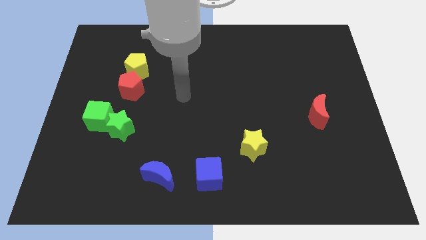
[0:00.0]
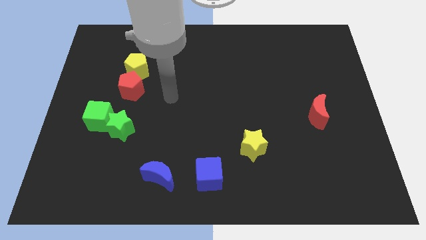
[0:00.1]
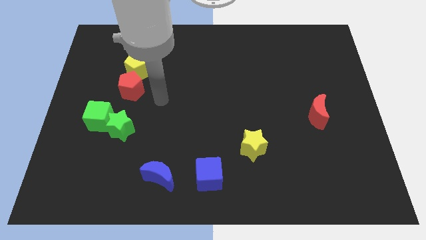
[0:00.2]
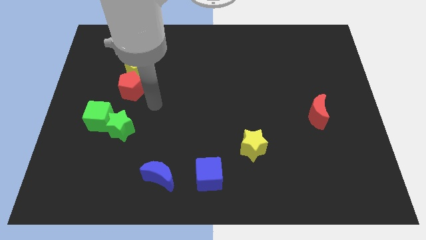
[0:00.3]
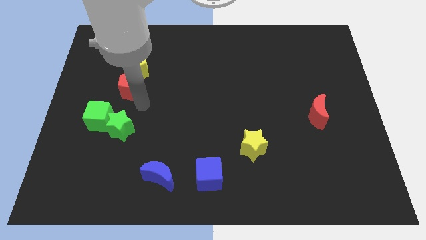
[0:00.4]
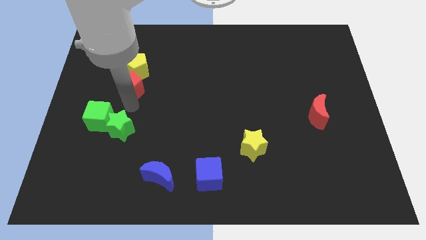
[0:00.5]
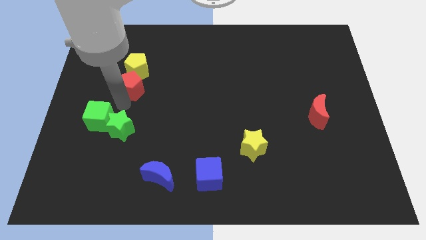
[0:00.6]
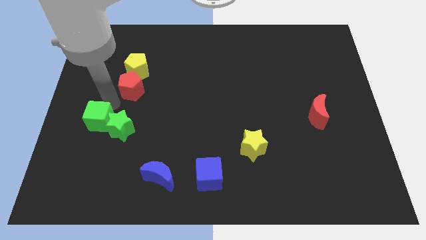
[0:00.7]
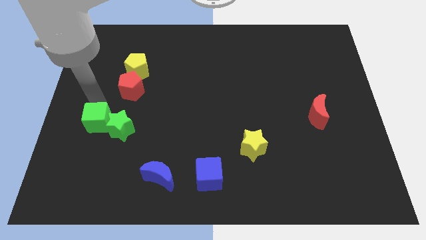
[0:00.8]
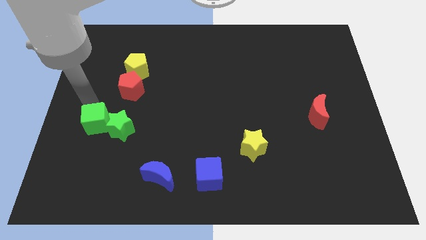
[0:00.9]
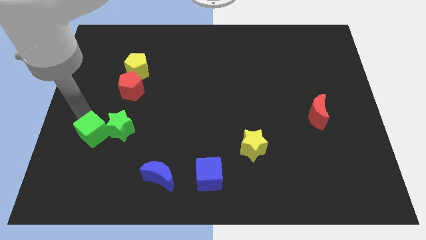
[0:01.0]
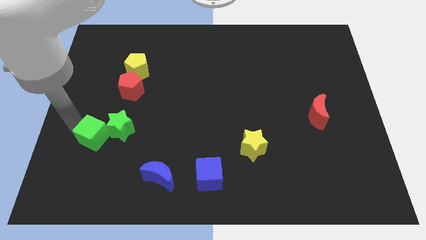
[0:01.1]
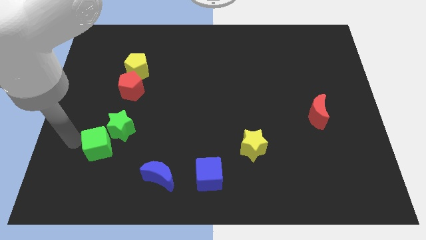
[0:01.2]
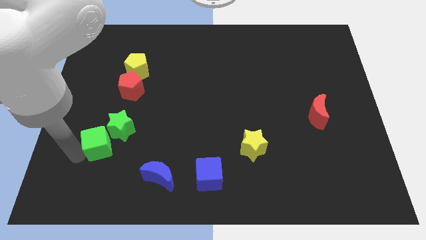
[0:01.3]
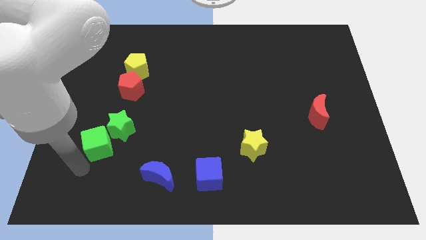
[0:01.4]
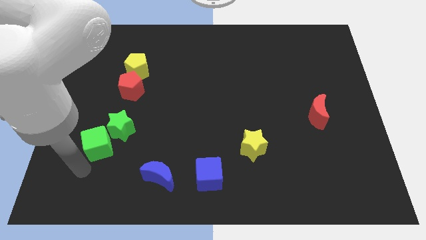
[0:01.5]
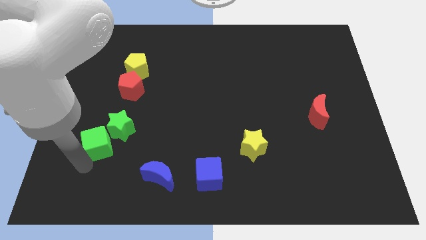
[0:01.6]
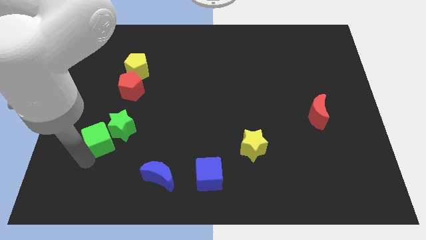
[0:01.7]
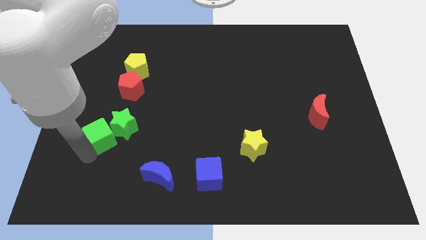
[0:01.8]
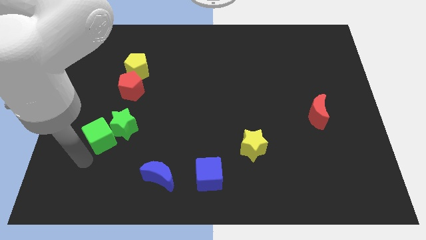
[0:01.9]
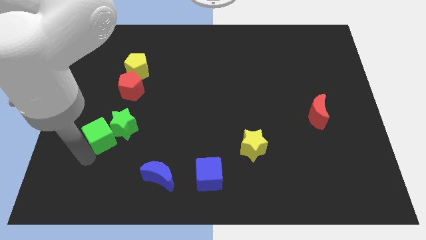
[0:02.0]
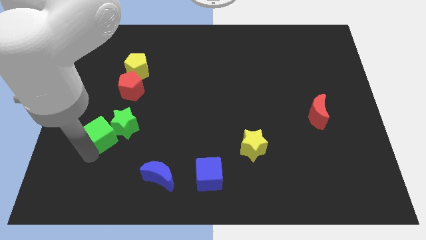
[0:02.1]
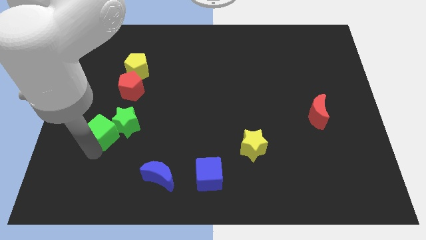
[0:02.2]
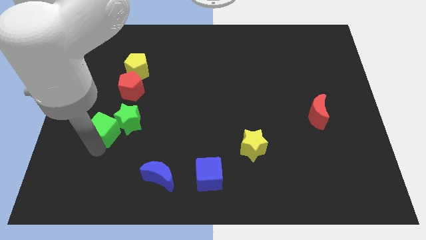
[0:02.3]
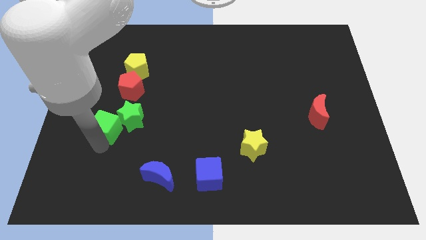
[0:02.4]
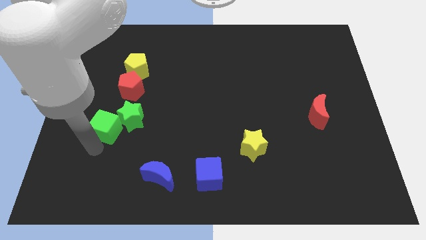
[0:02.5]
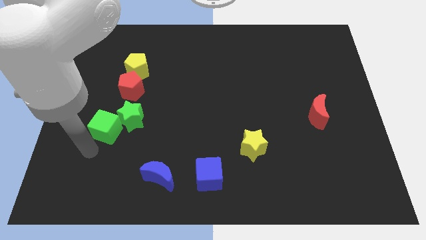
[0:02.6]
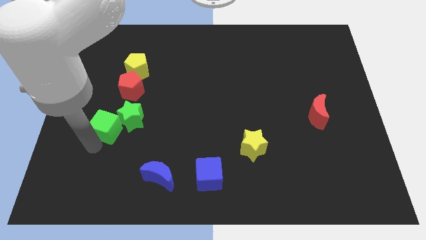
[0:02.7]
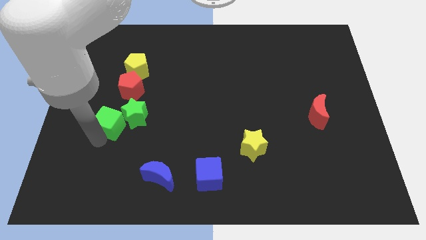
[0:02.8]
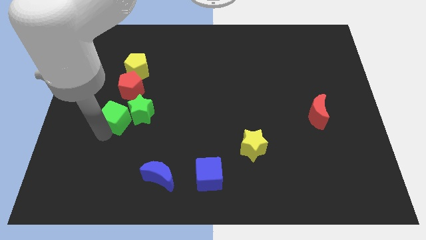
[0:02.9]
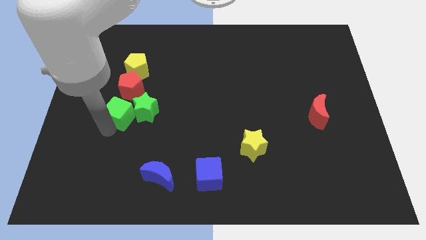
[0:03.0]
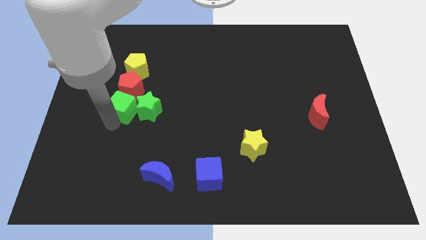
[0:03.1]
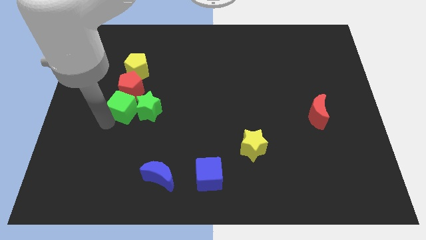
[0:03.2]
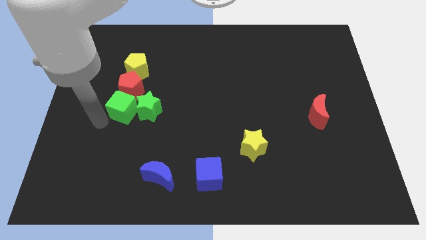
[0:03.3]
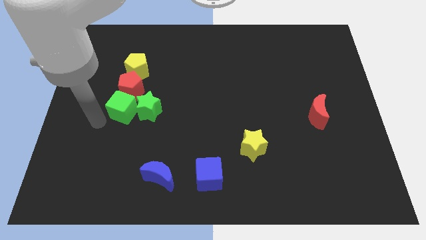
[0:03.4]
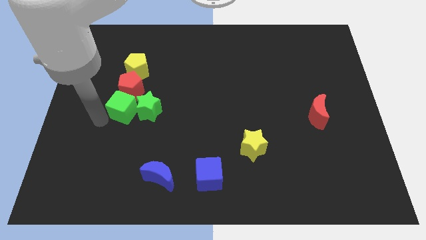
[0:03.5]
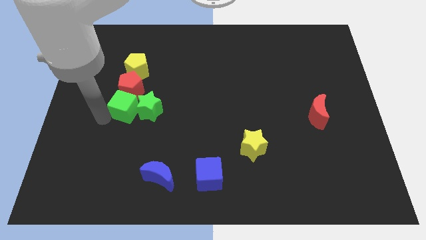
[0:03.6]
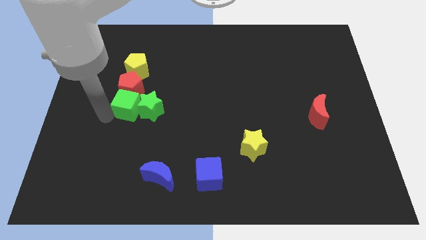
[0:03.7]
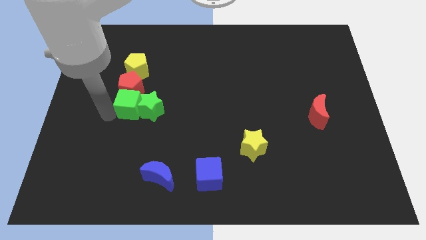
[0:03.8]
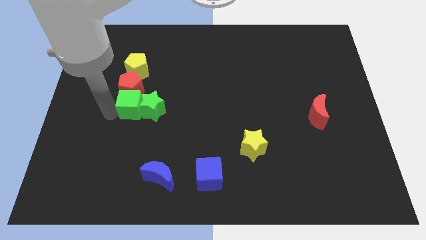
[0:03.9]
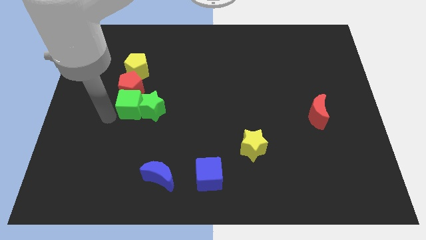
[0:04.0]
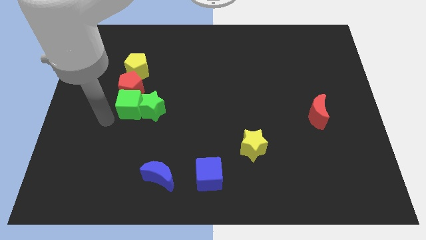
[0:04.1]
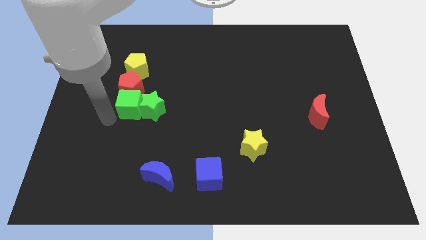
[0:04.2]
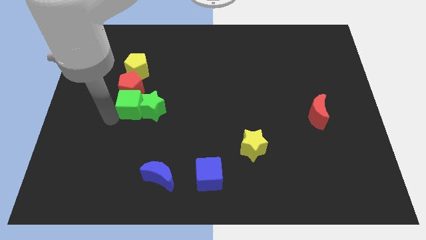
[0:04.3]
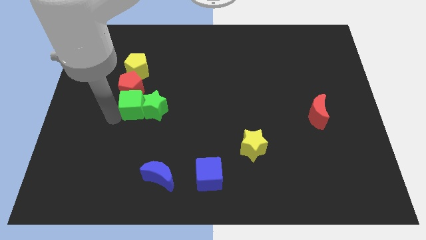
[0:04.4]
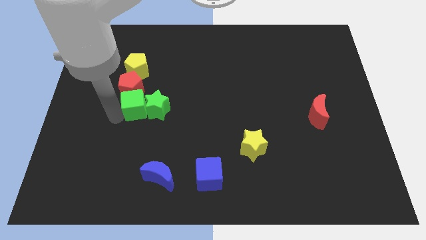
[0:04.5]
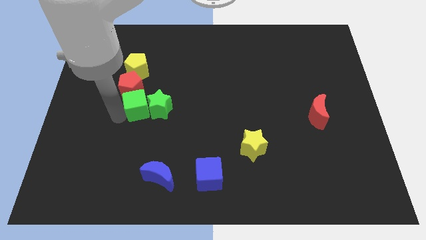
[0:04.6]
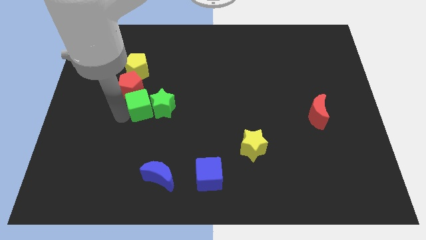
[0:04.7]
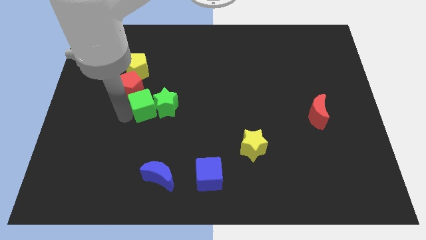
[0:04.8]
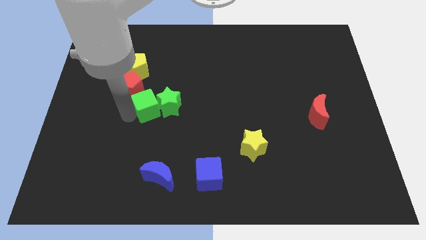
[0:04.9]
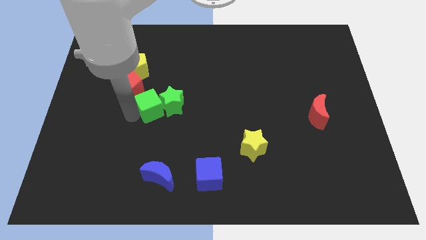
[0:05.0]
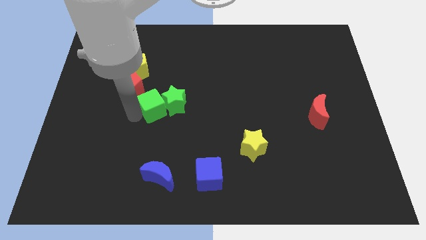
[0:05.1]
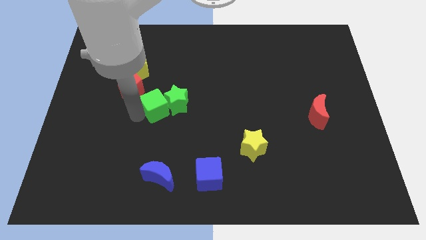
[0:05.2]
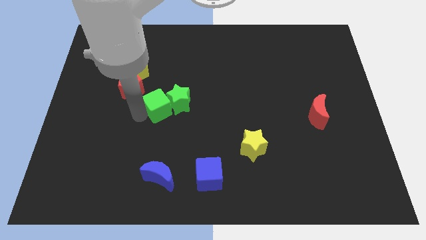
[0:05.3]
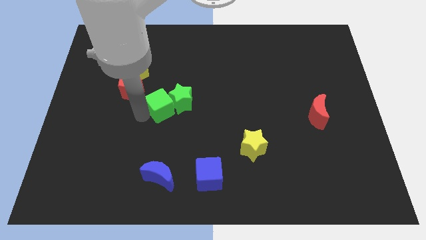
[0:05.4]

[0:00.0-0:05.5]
put the green cube to the middle of the board

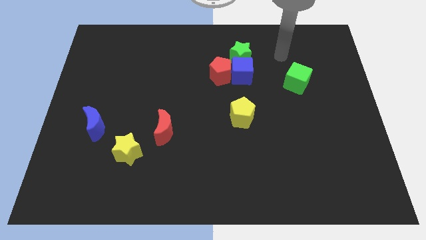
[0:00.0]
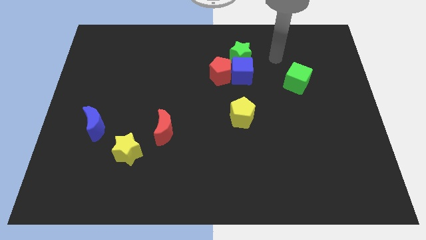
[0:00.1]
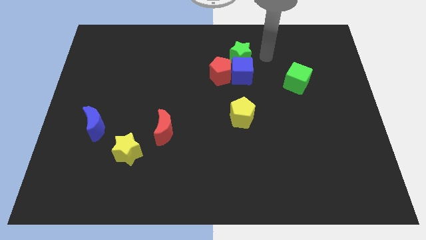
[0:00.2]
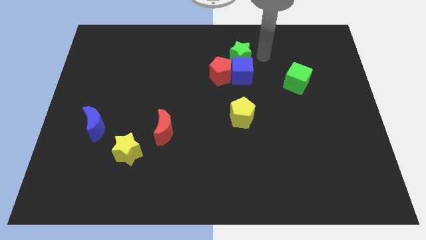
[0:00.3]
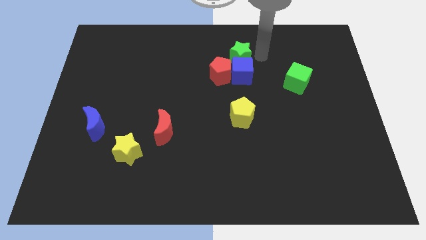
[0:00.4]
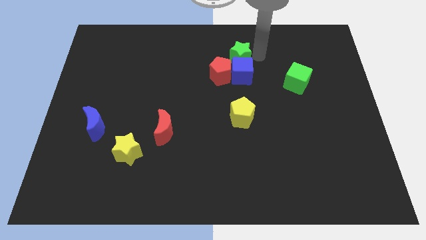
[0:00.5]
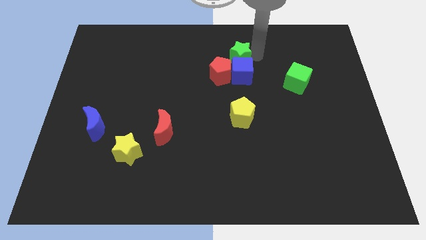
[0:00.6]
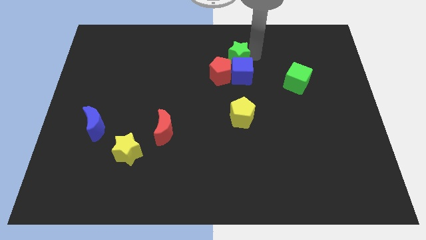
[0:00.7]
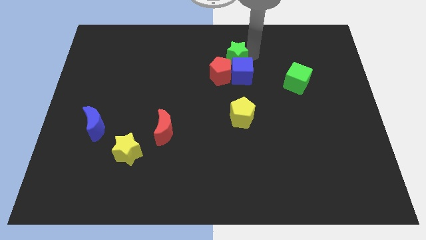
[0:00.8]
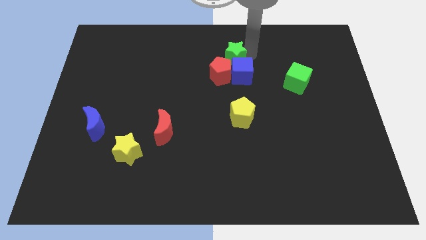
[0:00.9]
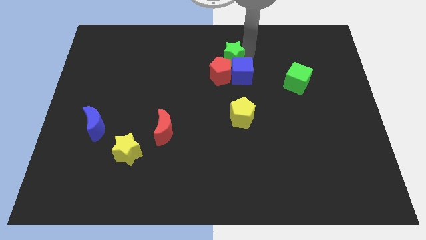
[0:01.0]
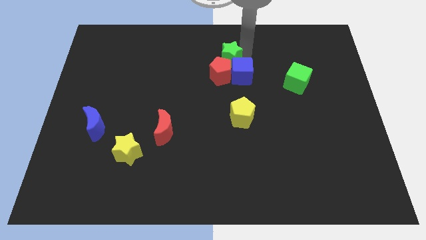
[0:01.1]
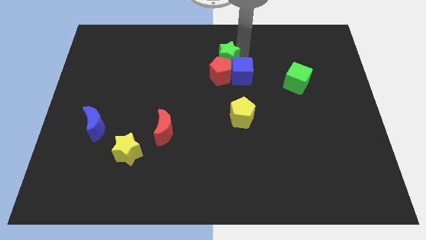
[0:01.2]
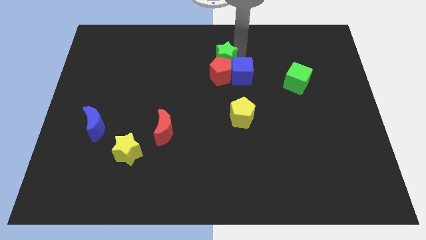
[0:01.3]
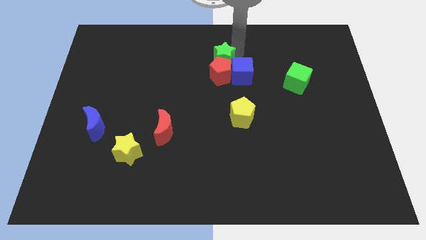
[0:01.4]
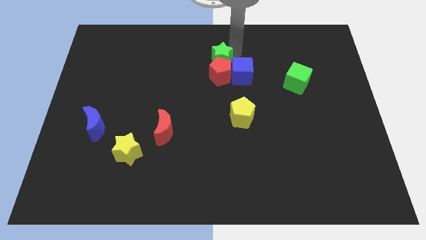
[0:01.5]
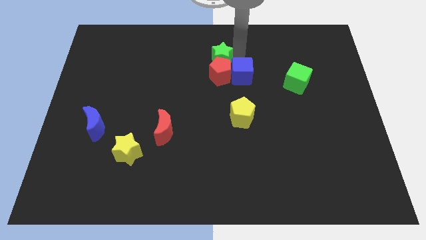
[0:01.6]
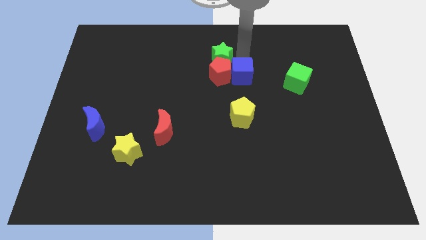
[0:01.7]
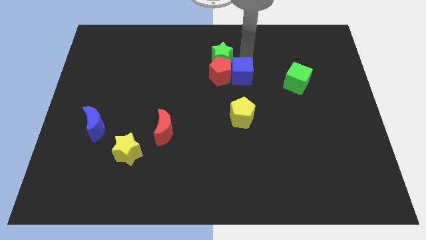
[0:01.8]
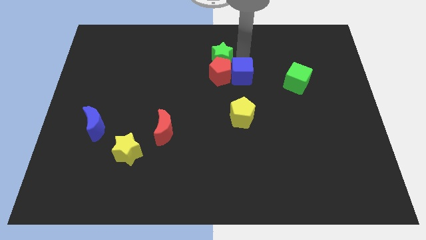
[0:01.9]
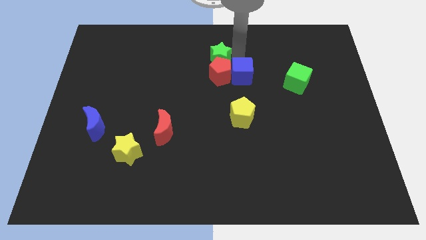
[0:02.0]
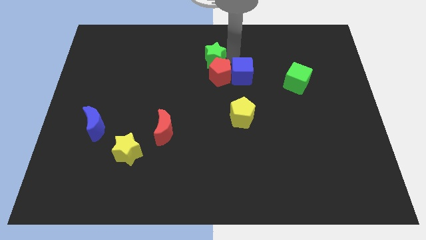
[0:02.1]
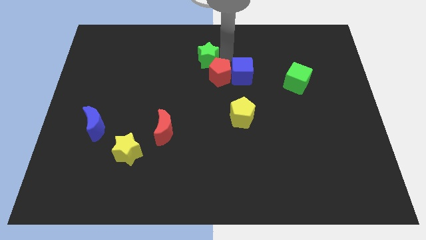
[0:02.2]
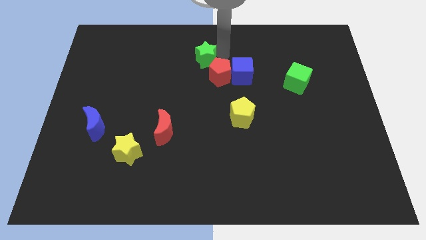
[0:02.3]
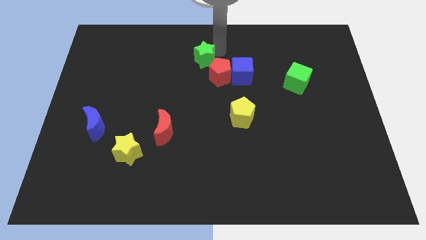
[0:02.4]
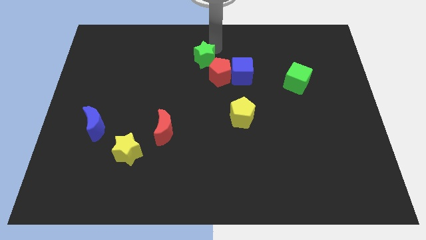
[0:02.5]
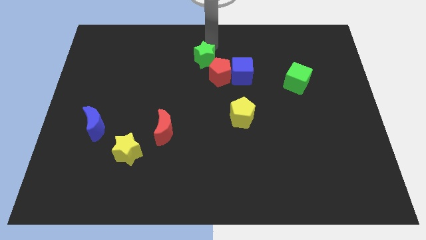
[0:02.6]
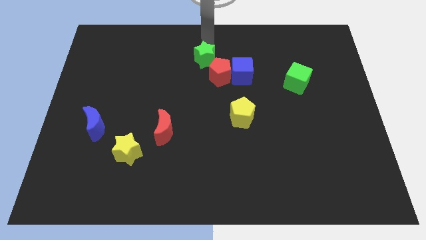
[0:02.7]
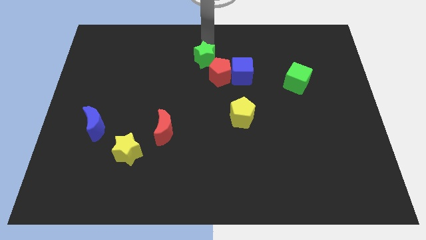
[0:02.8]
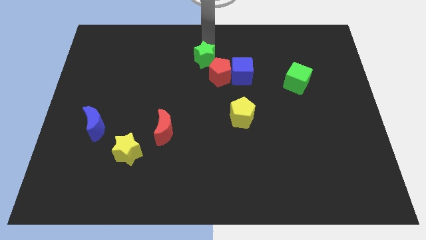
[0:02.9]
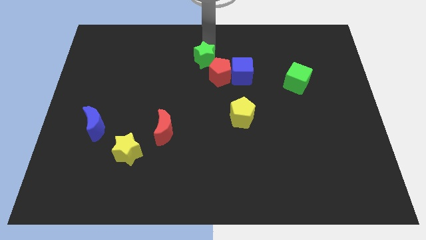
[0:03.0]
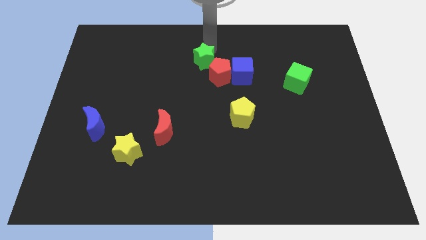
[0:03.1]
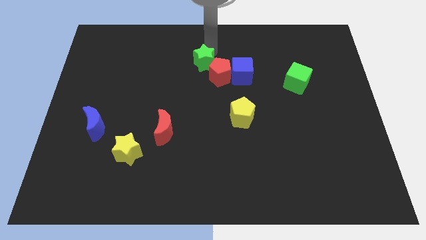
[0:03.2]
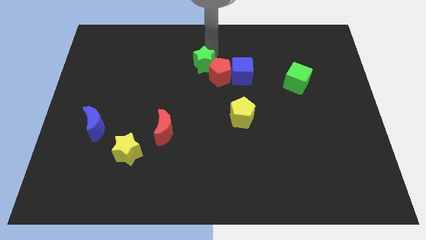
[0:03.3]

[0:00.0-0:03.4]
put the green star to the center
